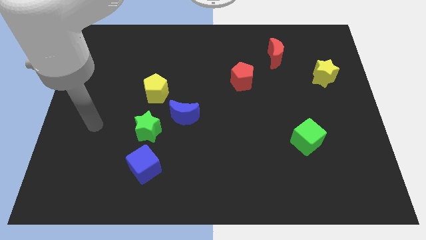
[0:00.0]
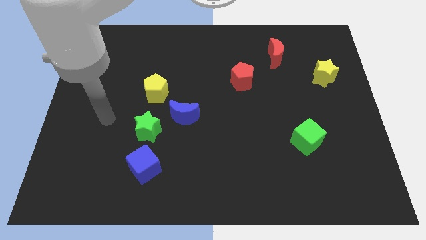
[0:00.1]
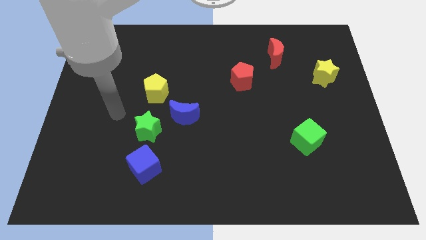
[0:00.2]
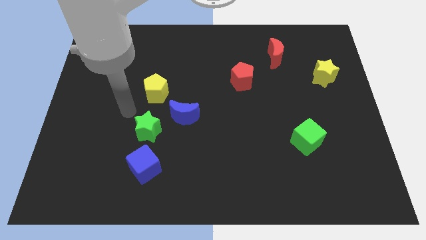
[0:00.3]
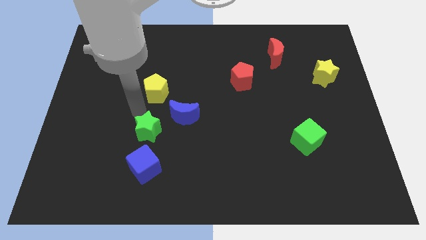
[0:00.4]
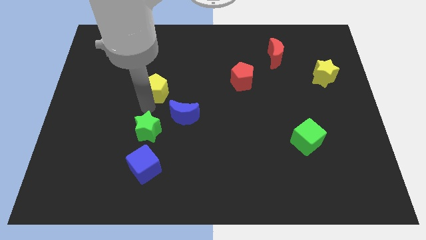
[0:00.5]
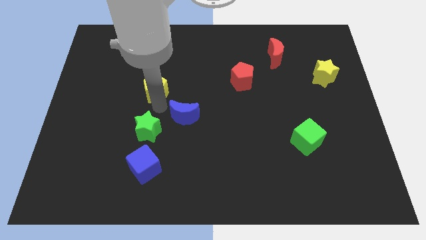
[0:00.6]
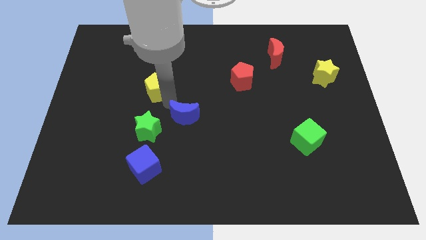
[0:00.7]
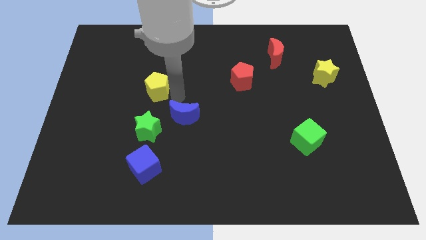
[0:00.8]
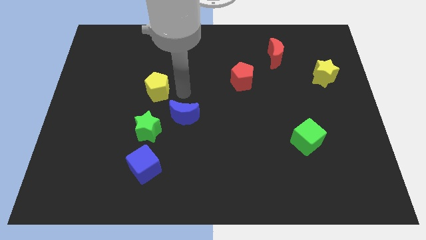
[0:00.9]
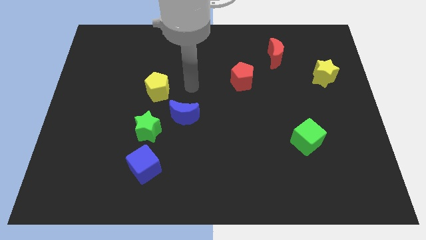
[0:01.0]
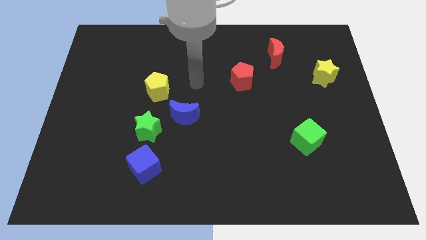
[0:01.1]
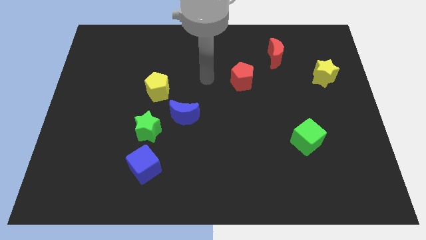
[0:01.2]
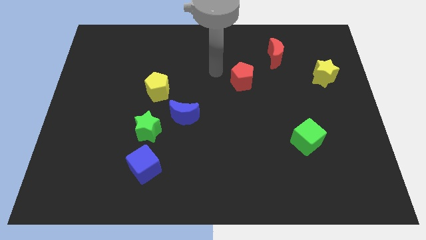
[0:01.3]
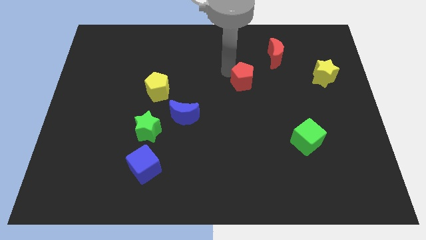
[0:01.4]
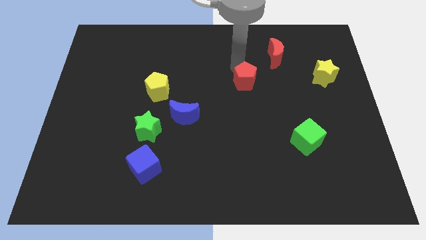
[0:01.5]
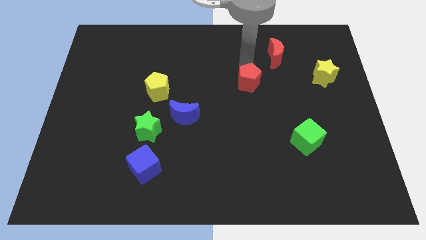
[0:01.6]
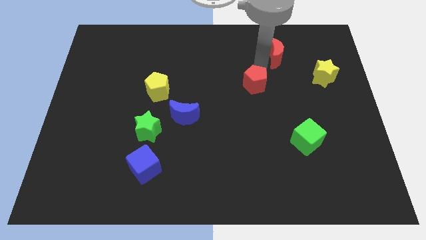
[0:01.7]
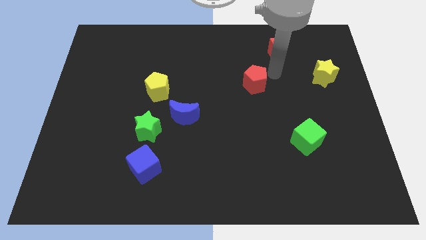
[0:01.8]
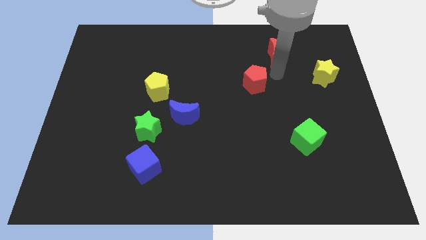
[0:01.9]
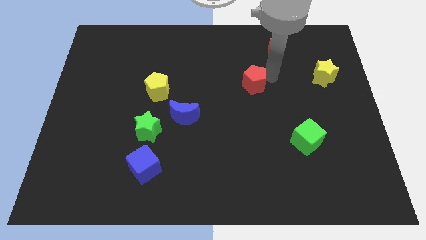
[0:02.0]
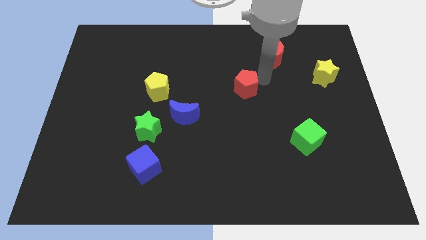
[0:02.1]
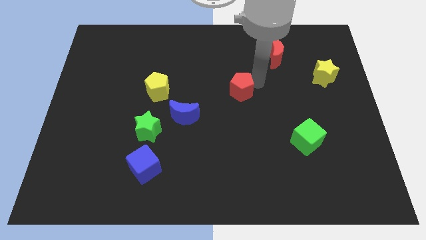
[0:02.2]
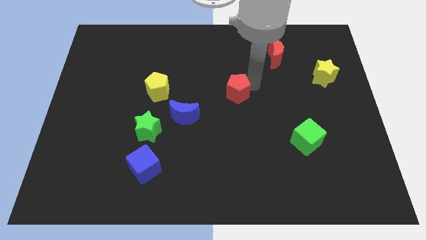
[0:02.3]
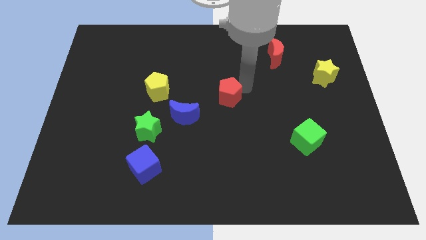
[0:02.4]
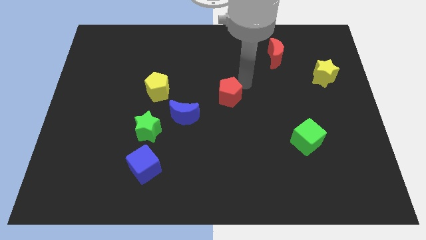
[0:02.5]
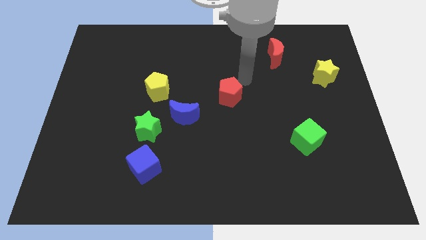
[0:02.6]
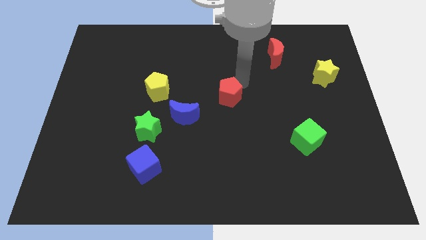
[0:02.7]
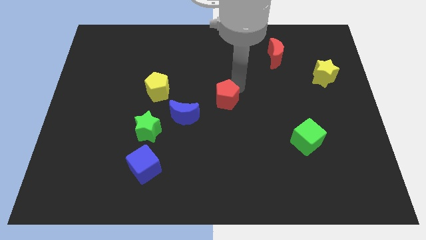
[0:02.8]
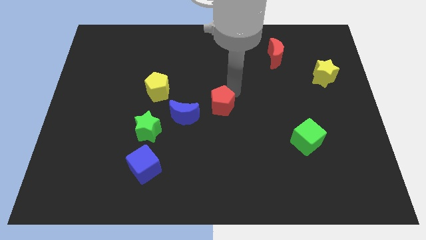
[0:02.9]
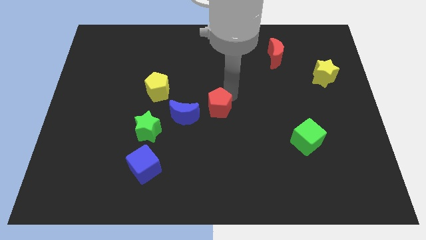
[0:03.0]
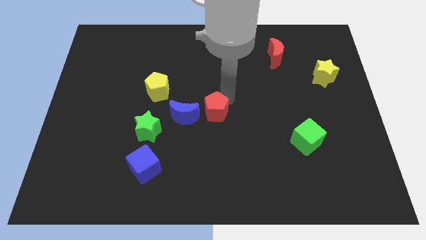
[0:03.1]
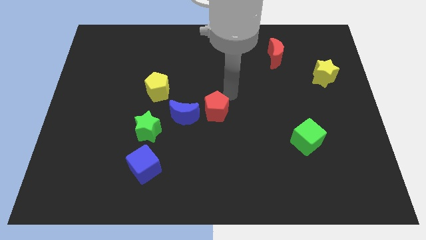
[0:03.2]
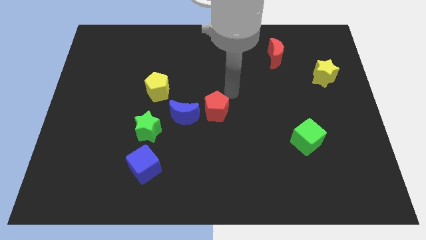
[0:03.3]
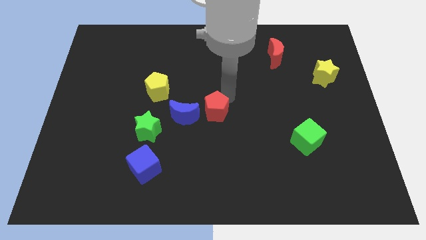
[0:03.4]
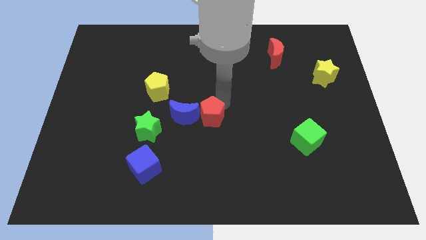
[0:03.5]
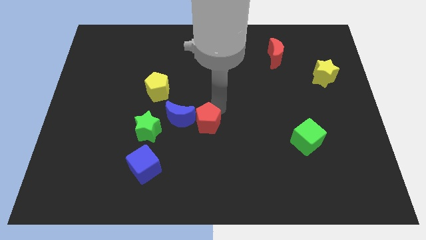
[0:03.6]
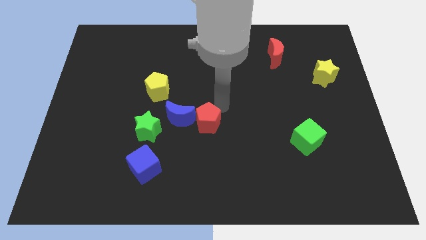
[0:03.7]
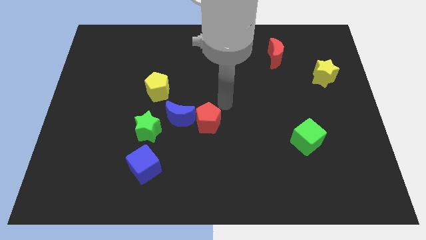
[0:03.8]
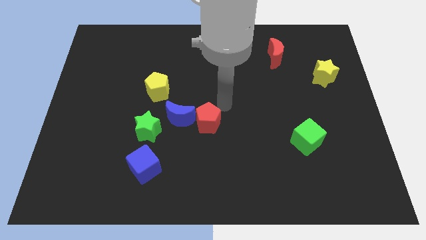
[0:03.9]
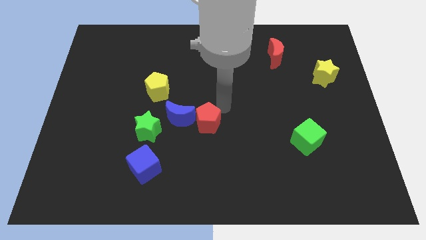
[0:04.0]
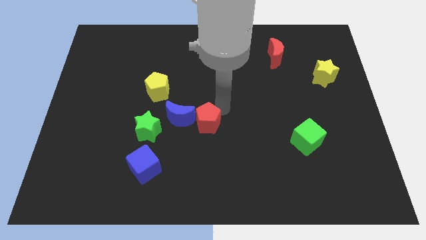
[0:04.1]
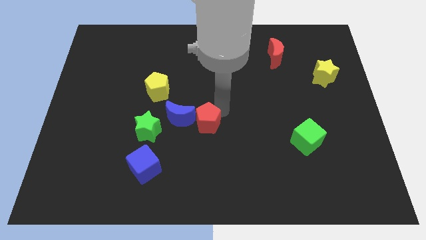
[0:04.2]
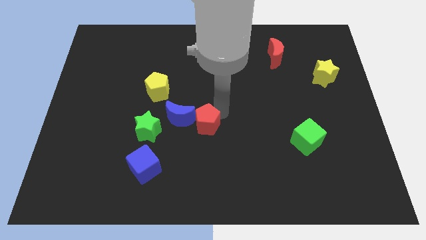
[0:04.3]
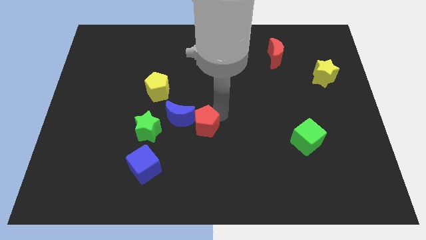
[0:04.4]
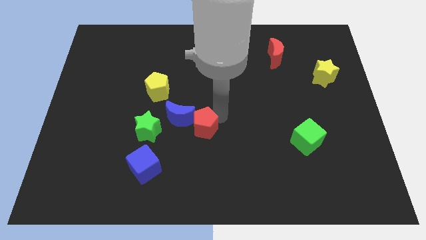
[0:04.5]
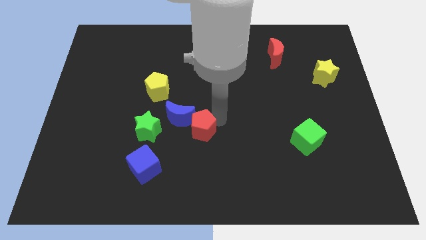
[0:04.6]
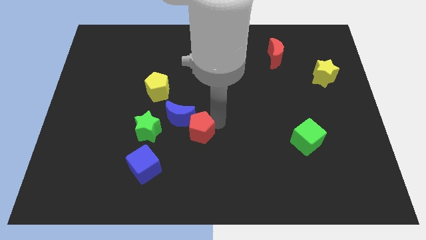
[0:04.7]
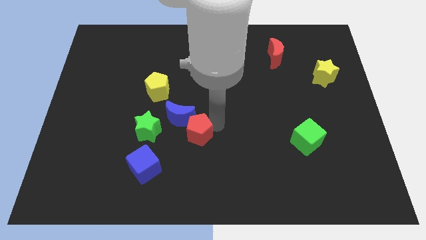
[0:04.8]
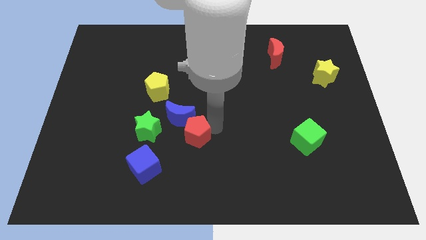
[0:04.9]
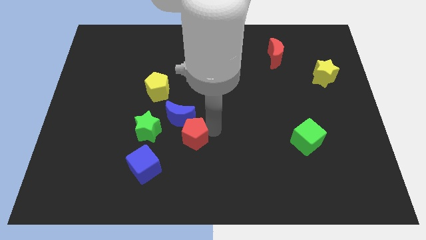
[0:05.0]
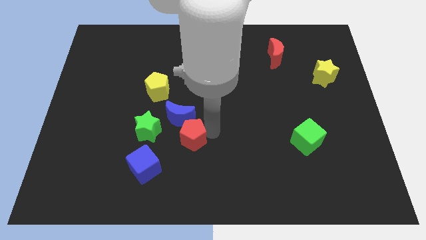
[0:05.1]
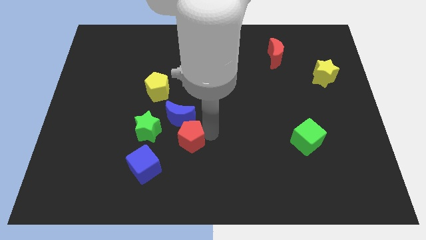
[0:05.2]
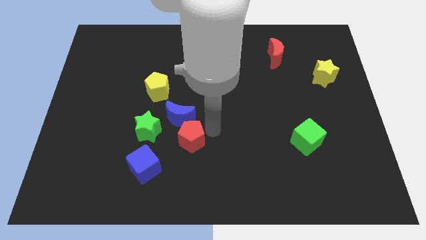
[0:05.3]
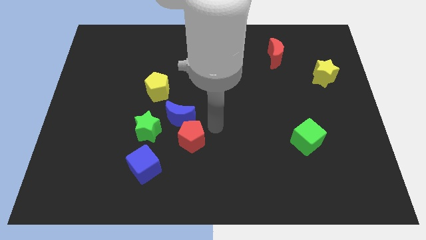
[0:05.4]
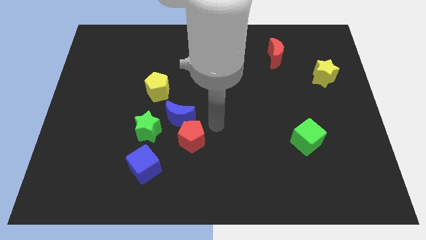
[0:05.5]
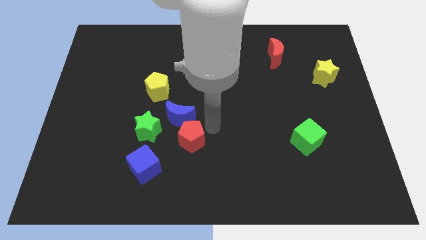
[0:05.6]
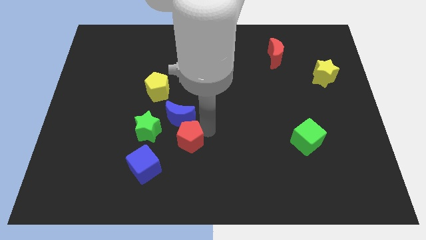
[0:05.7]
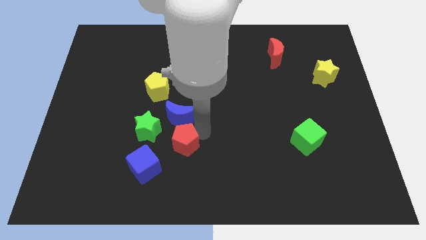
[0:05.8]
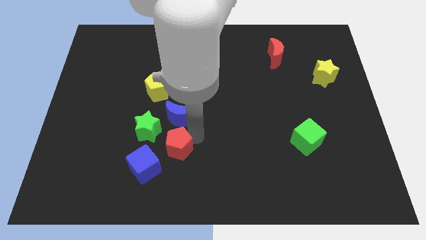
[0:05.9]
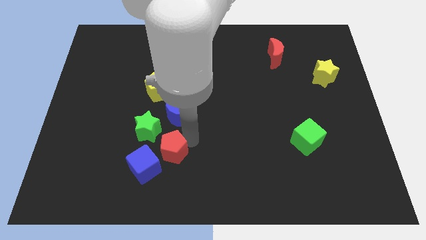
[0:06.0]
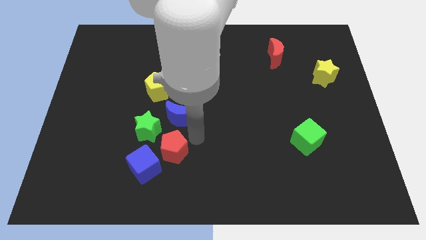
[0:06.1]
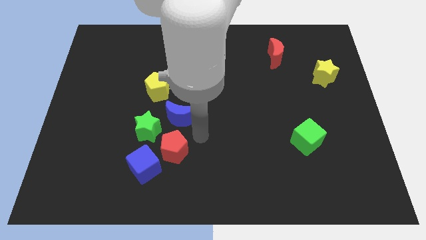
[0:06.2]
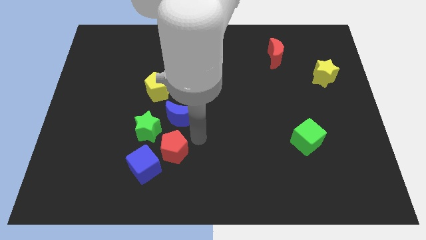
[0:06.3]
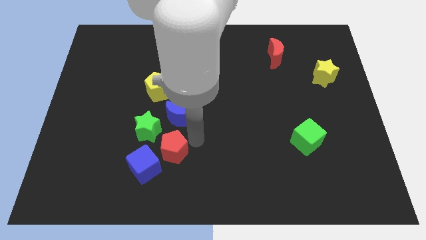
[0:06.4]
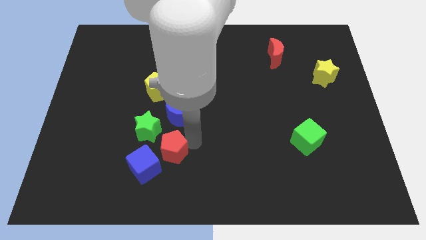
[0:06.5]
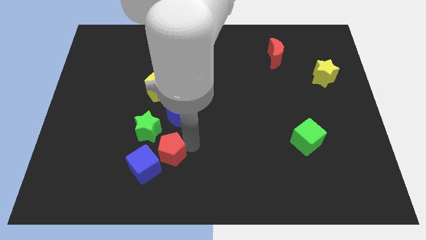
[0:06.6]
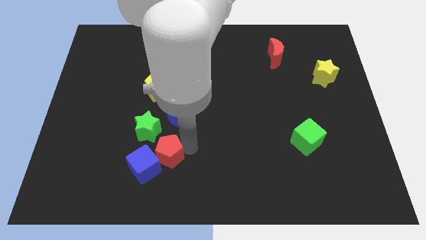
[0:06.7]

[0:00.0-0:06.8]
put the red pentagon to the blue cube
